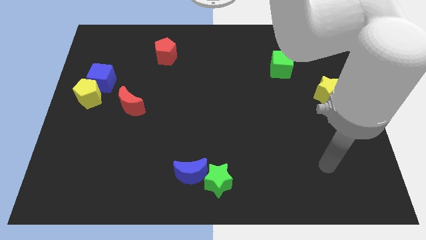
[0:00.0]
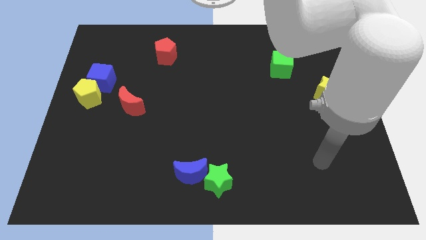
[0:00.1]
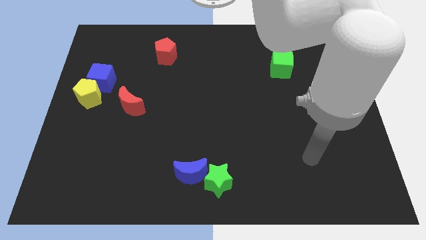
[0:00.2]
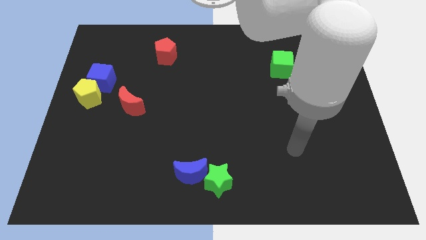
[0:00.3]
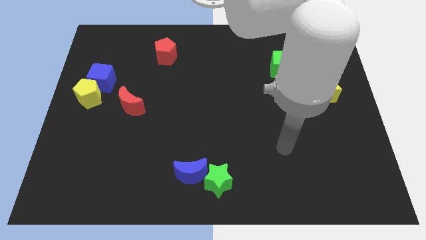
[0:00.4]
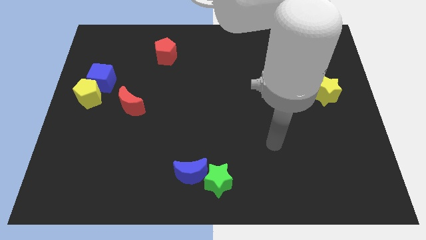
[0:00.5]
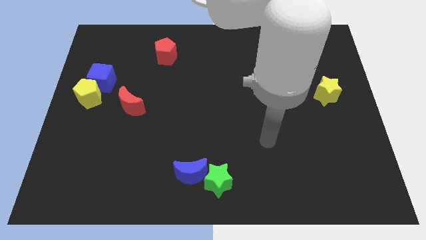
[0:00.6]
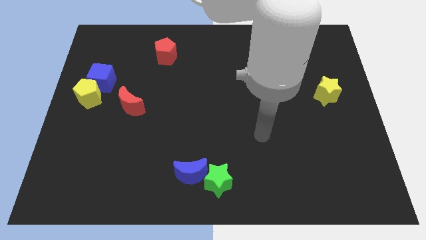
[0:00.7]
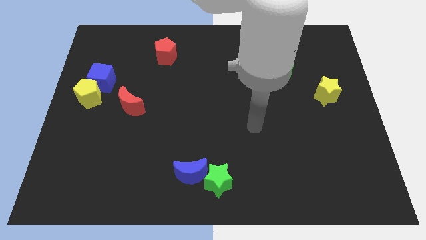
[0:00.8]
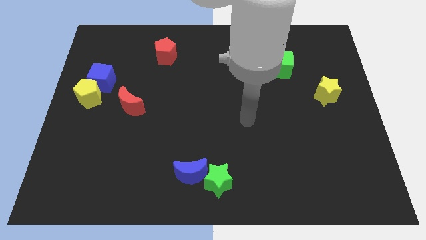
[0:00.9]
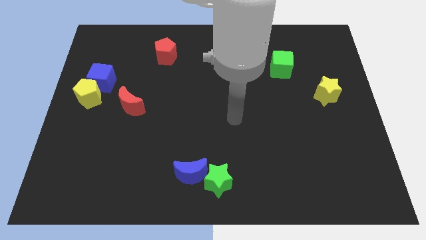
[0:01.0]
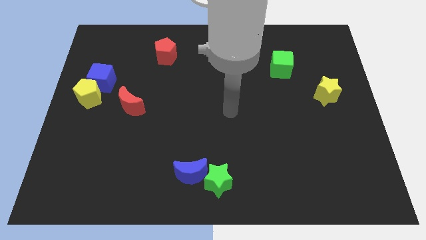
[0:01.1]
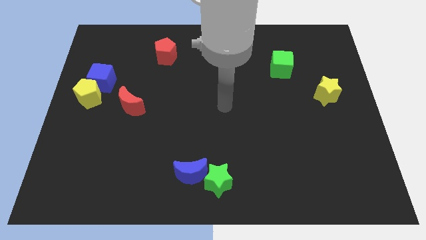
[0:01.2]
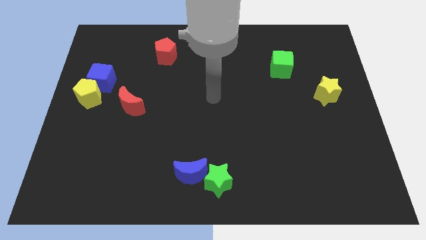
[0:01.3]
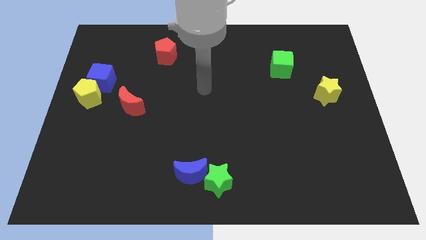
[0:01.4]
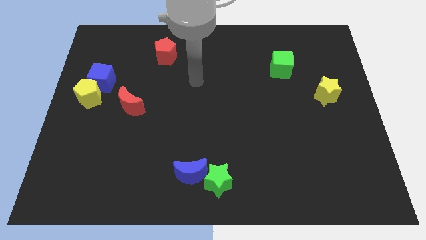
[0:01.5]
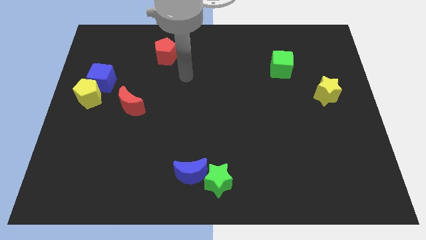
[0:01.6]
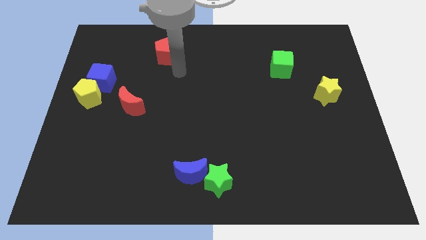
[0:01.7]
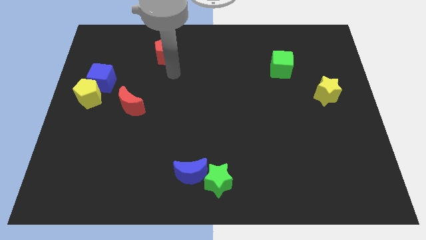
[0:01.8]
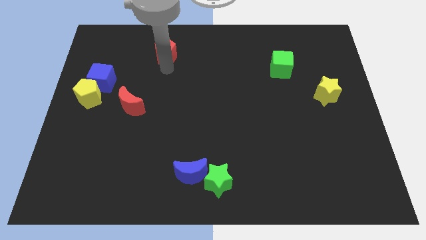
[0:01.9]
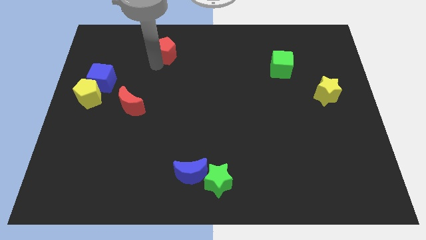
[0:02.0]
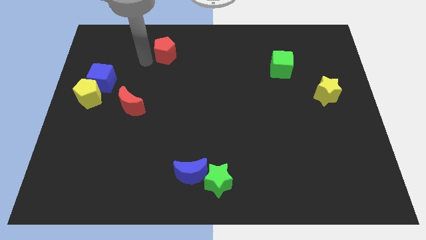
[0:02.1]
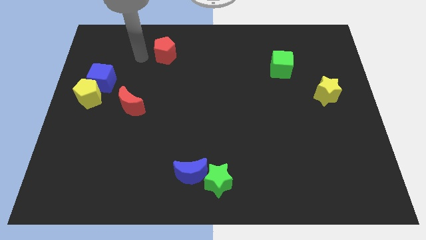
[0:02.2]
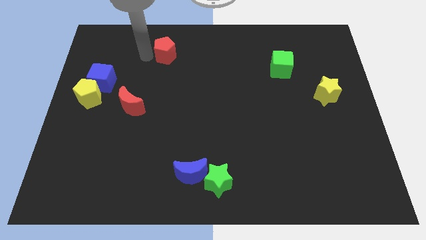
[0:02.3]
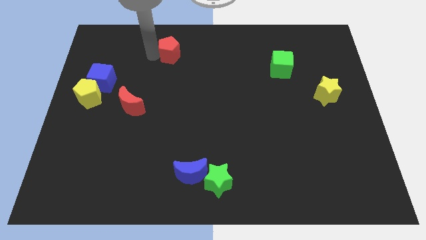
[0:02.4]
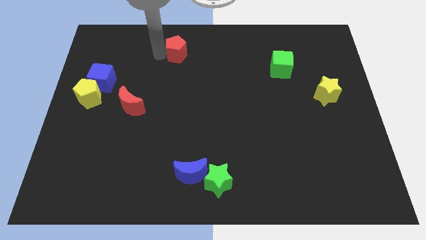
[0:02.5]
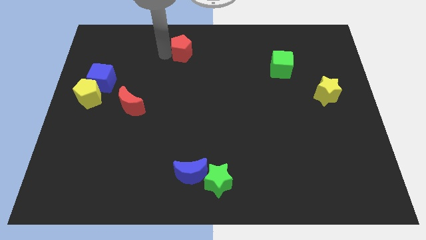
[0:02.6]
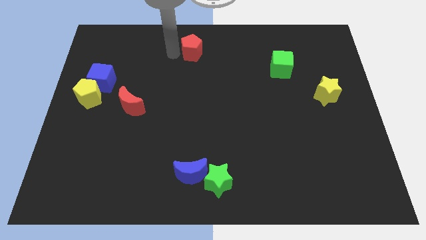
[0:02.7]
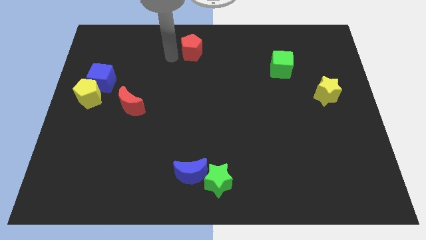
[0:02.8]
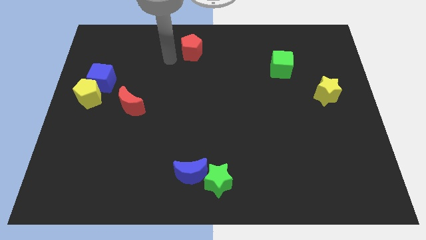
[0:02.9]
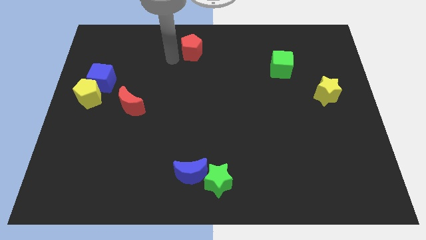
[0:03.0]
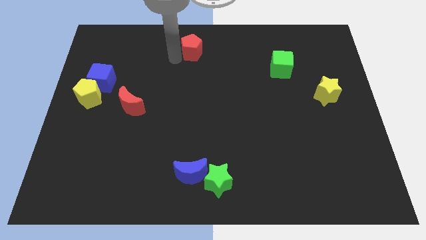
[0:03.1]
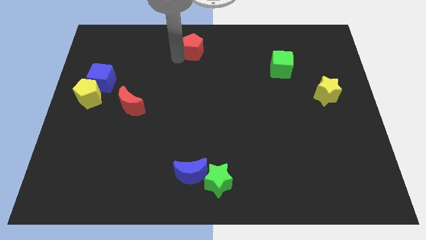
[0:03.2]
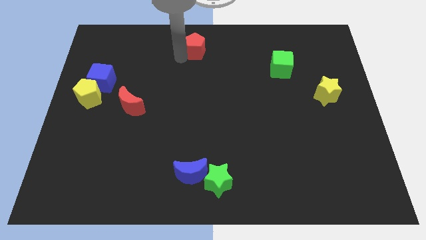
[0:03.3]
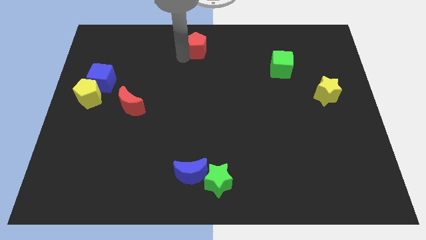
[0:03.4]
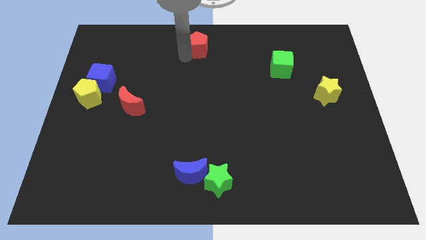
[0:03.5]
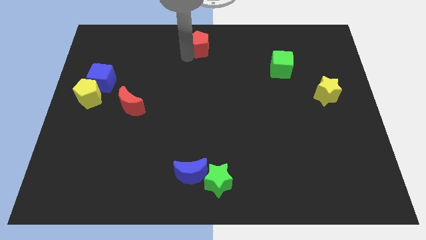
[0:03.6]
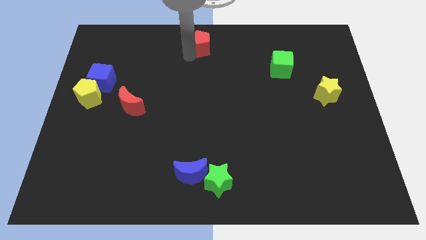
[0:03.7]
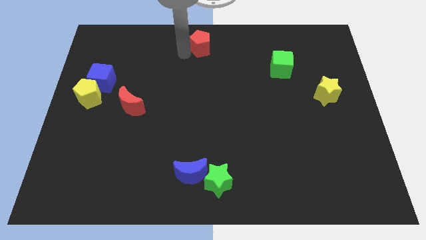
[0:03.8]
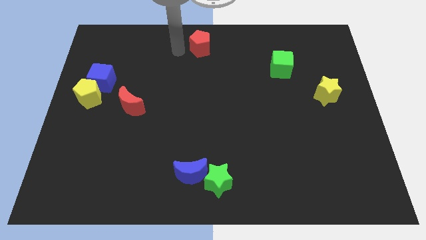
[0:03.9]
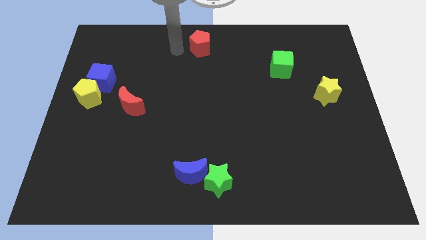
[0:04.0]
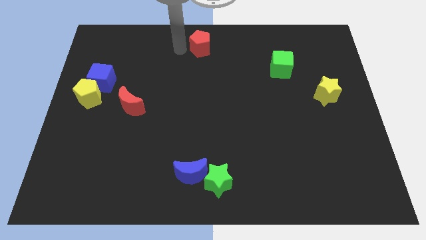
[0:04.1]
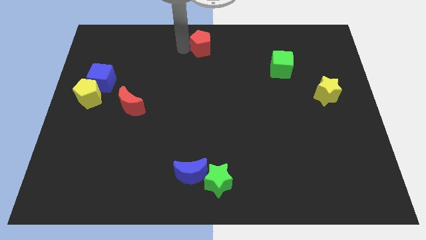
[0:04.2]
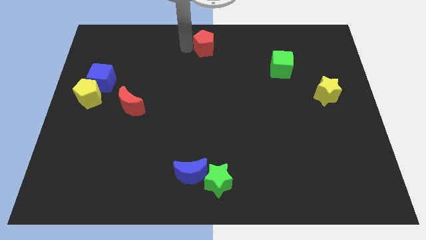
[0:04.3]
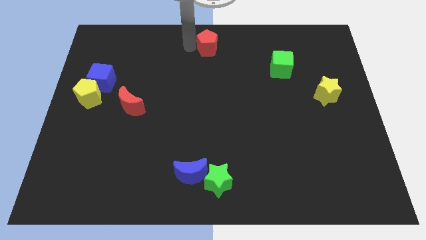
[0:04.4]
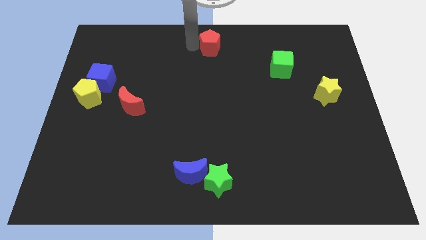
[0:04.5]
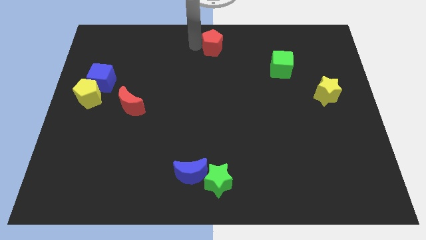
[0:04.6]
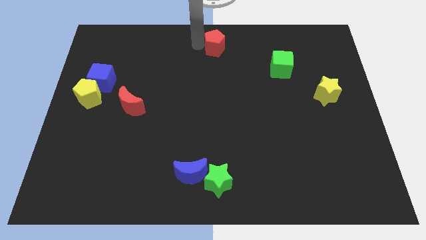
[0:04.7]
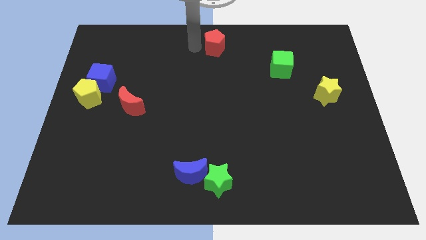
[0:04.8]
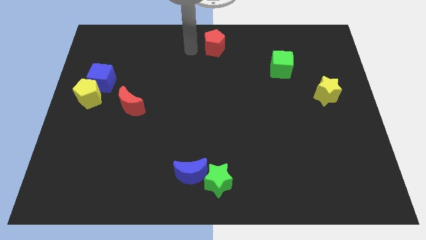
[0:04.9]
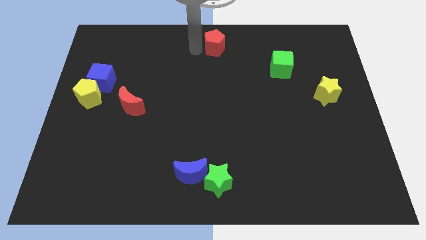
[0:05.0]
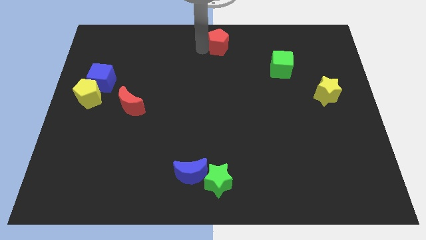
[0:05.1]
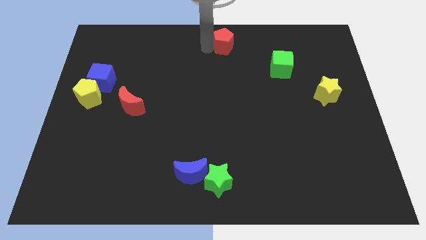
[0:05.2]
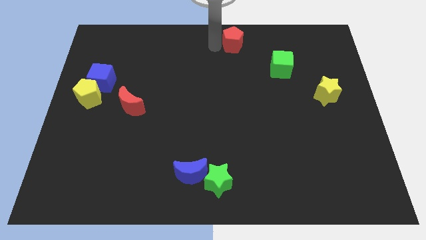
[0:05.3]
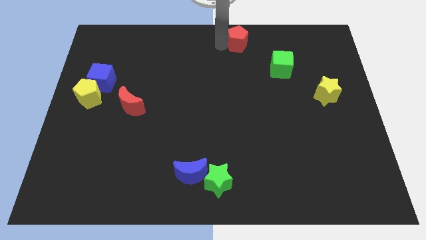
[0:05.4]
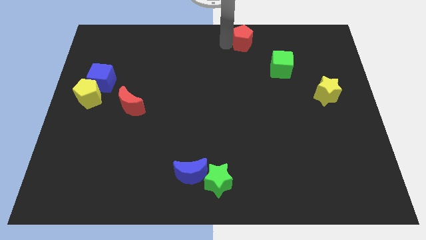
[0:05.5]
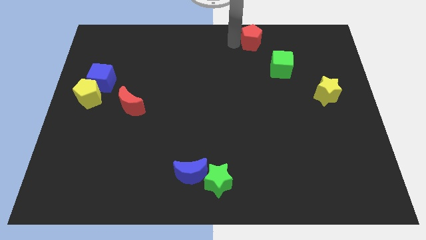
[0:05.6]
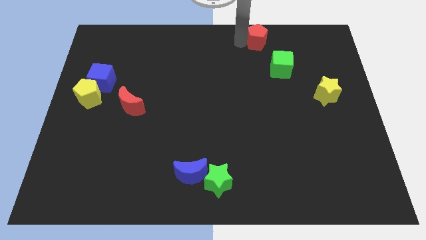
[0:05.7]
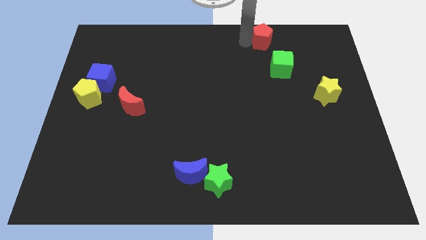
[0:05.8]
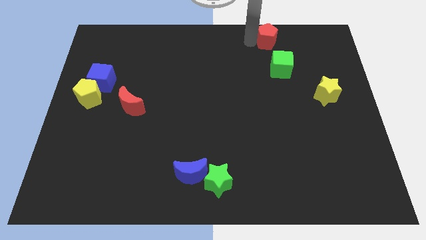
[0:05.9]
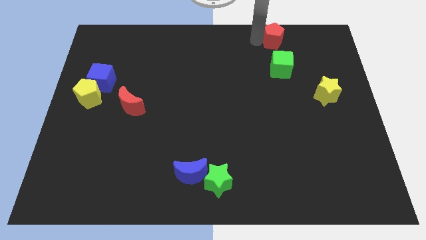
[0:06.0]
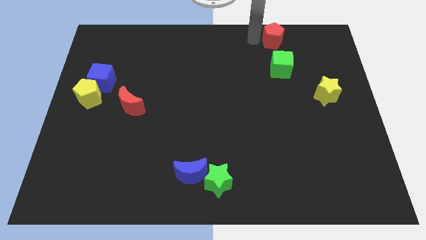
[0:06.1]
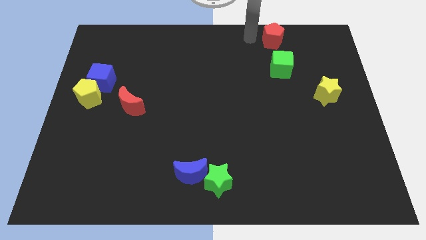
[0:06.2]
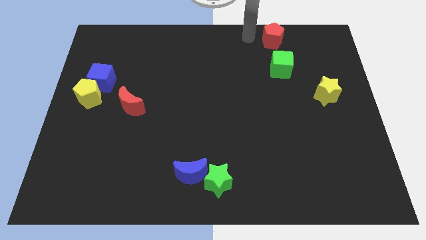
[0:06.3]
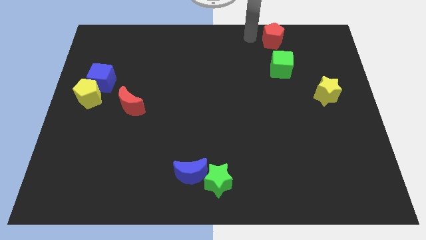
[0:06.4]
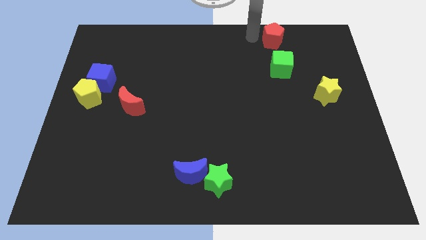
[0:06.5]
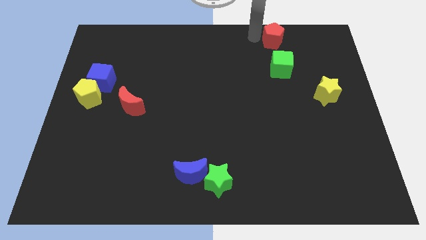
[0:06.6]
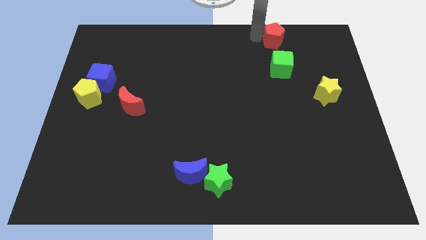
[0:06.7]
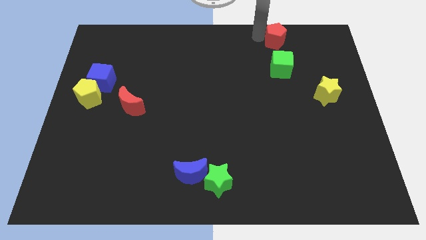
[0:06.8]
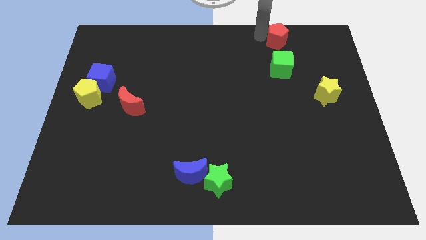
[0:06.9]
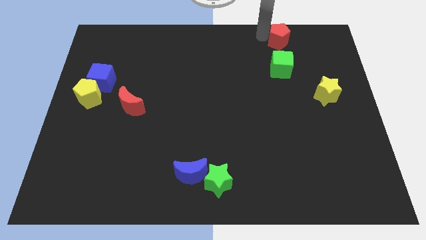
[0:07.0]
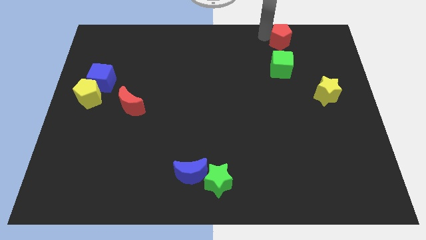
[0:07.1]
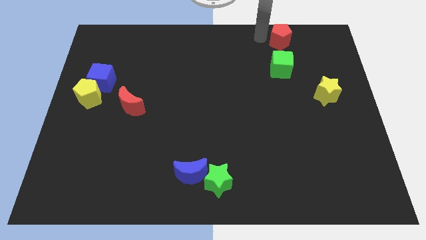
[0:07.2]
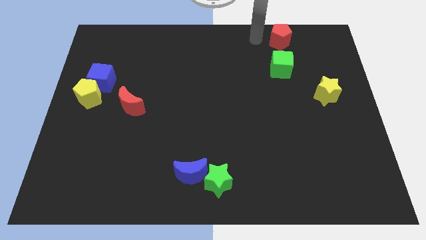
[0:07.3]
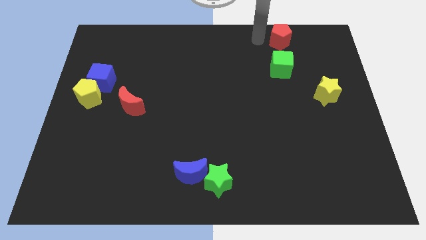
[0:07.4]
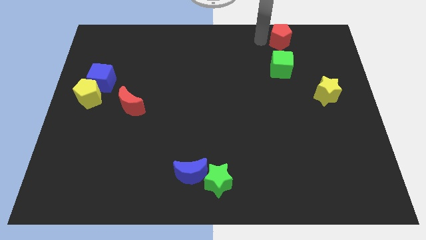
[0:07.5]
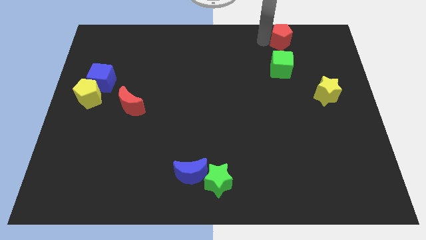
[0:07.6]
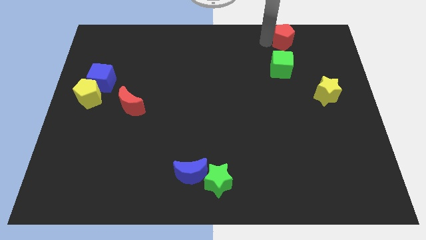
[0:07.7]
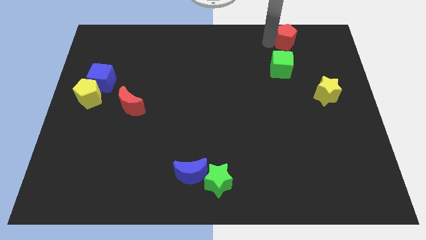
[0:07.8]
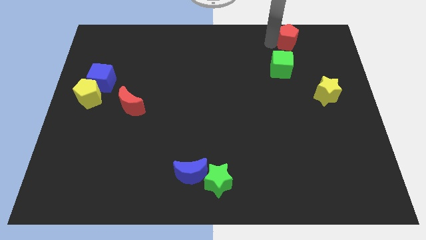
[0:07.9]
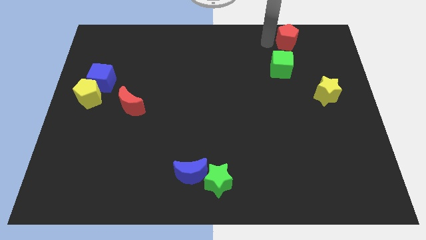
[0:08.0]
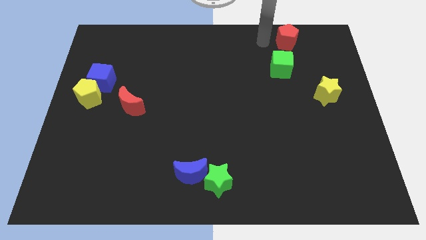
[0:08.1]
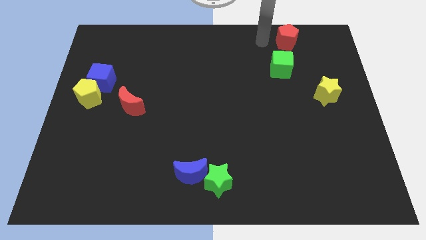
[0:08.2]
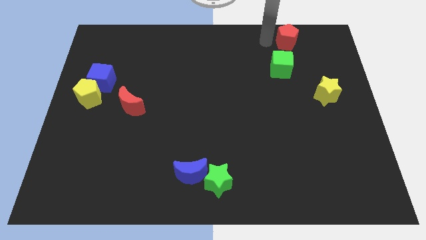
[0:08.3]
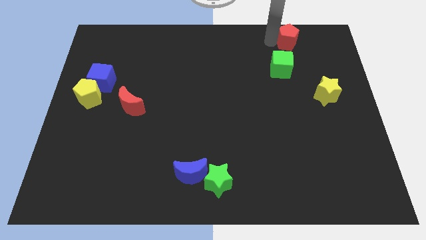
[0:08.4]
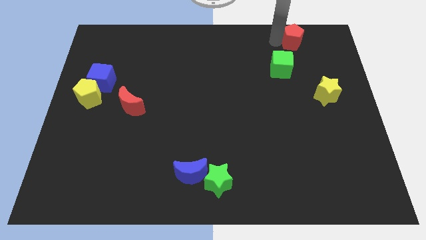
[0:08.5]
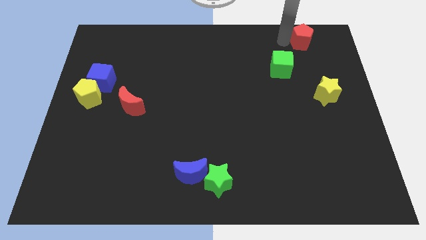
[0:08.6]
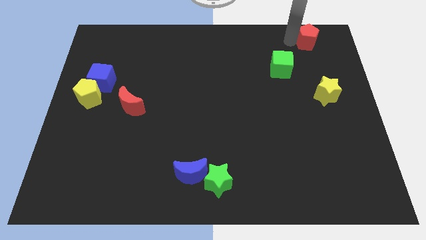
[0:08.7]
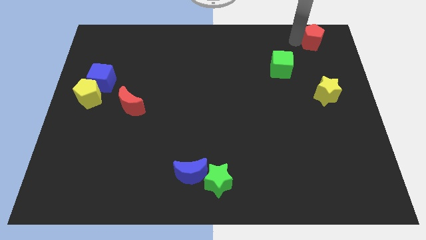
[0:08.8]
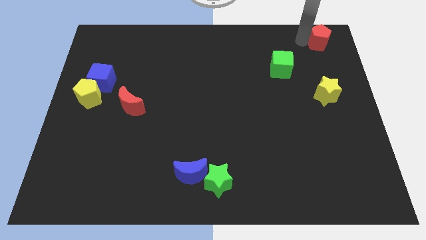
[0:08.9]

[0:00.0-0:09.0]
put the red pentagon to the top right corner
